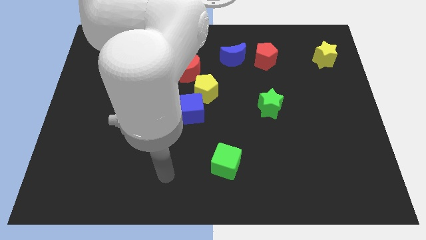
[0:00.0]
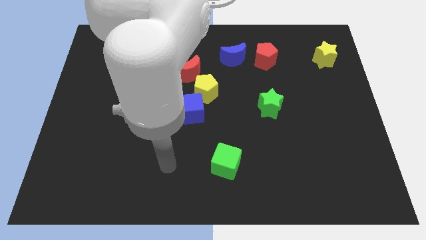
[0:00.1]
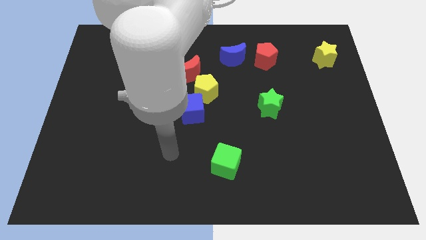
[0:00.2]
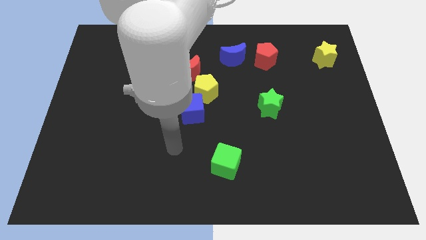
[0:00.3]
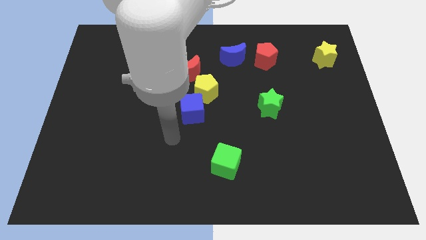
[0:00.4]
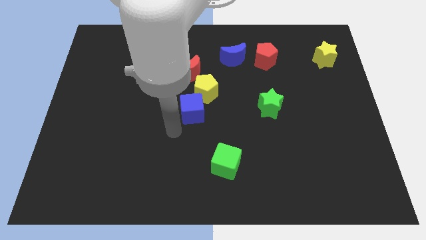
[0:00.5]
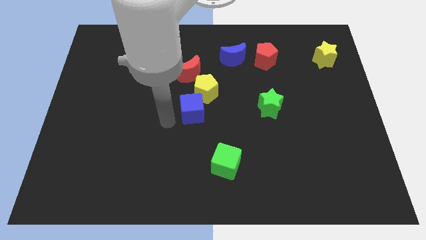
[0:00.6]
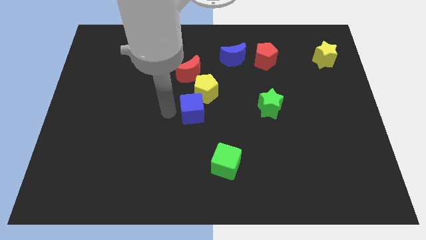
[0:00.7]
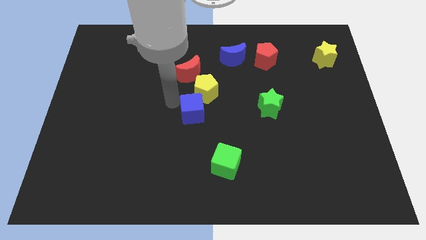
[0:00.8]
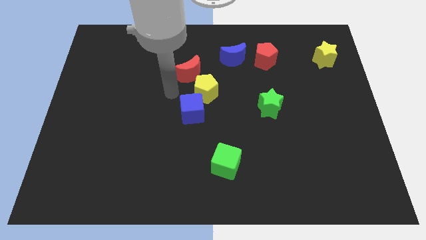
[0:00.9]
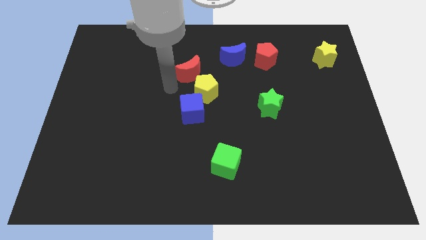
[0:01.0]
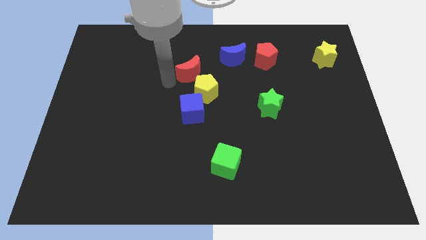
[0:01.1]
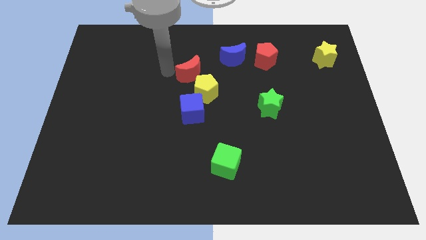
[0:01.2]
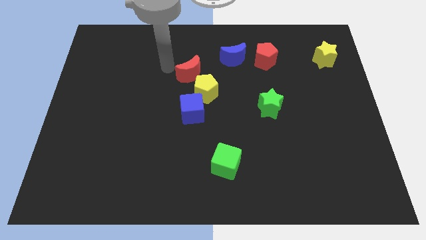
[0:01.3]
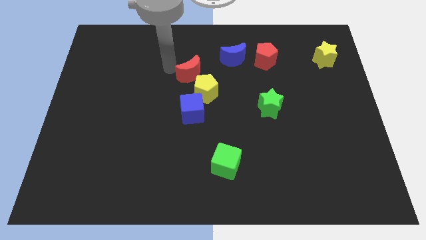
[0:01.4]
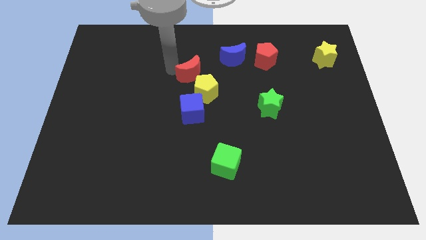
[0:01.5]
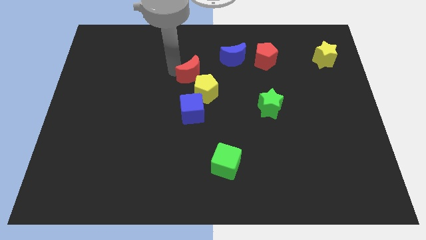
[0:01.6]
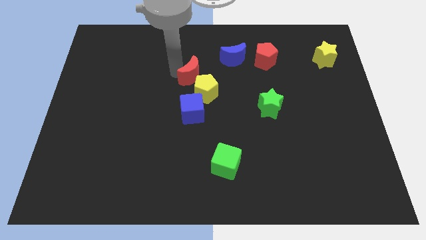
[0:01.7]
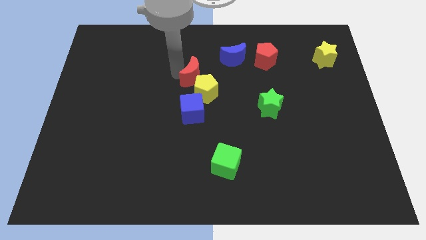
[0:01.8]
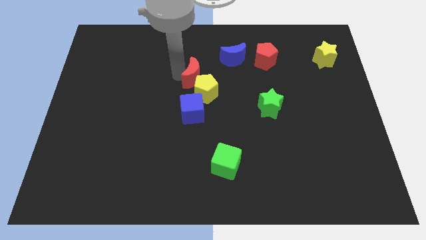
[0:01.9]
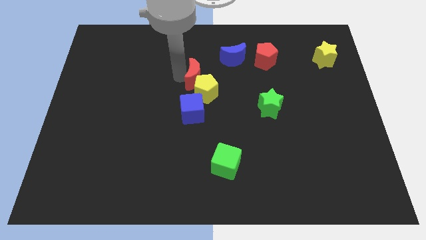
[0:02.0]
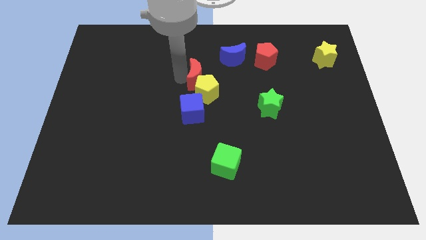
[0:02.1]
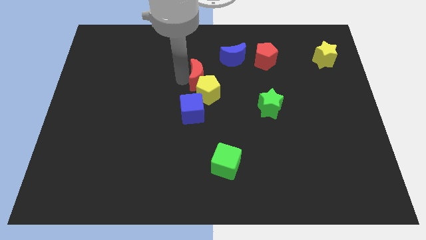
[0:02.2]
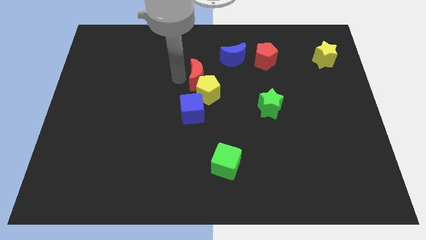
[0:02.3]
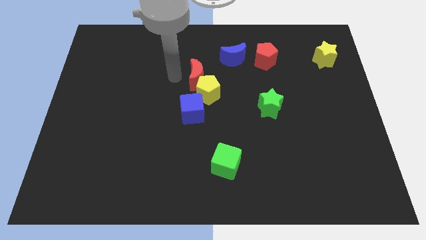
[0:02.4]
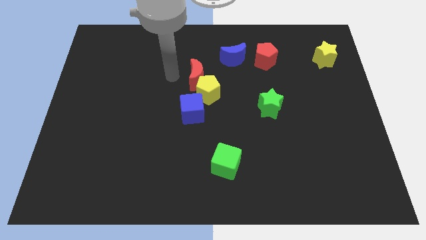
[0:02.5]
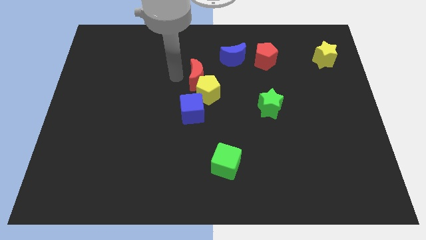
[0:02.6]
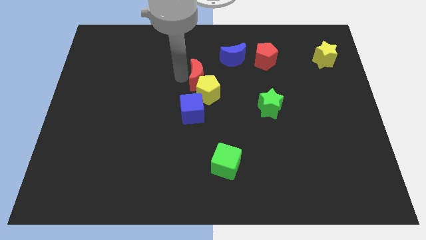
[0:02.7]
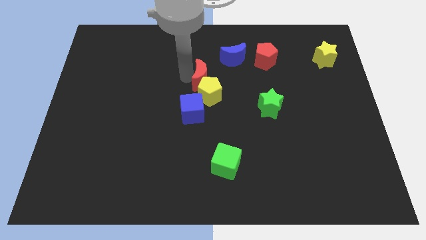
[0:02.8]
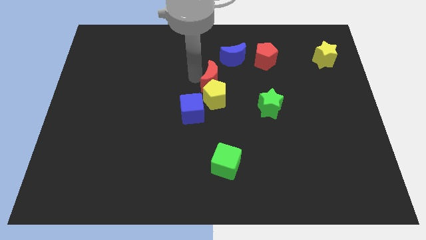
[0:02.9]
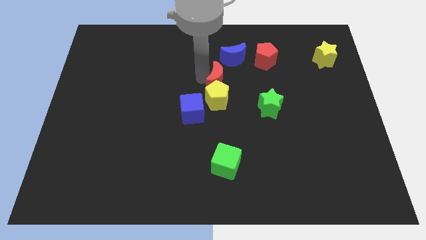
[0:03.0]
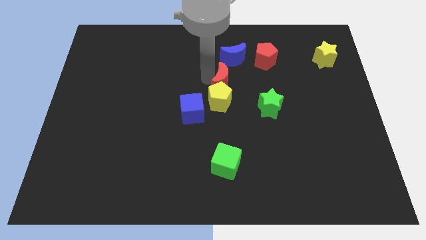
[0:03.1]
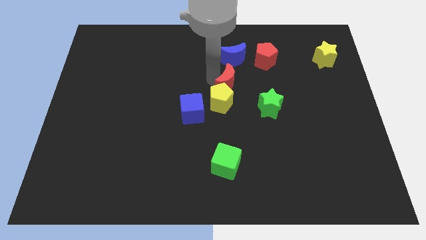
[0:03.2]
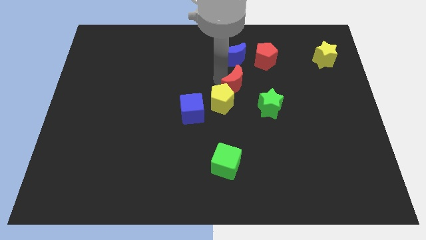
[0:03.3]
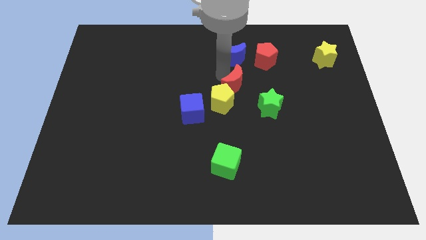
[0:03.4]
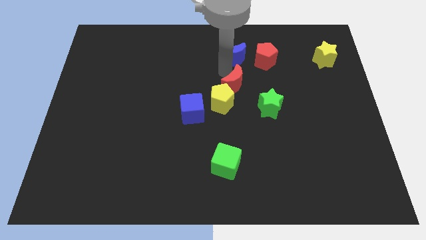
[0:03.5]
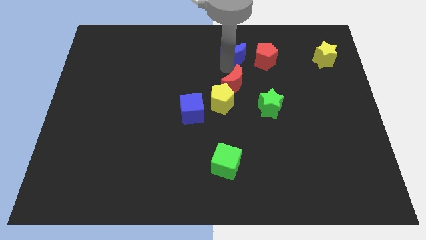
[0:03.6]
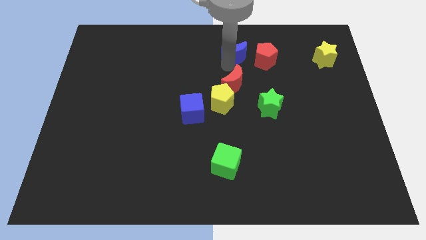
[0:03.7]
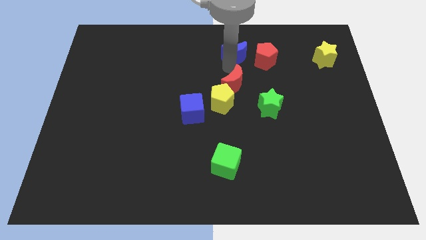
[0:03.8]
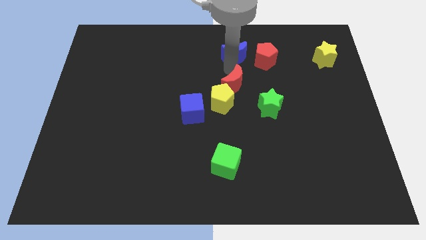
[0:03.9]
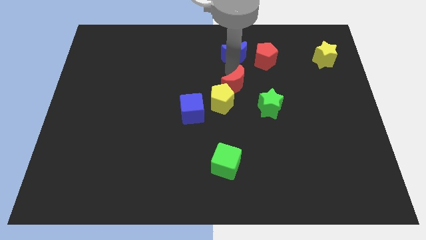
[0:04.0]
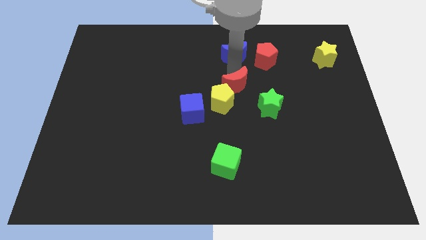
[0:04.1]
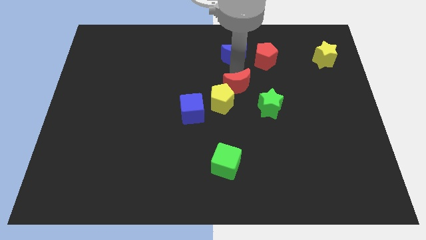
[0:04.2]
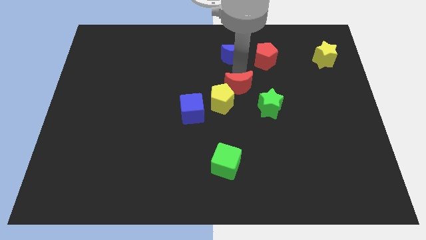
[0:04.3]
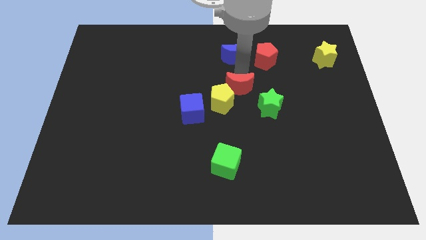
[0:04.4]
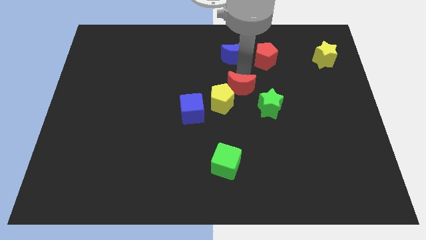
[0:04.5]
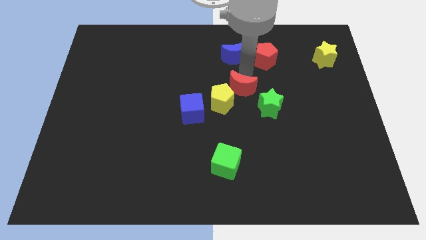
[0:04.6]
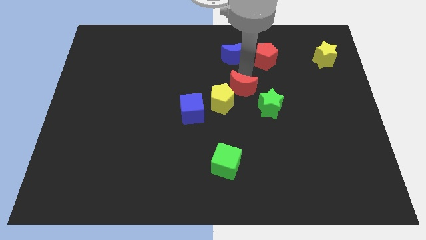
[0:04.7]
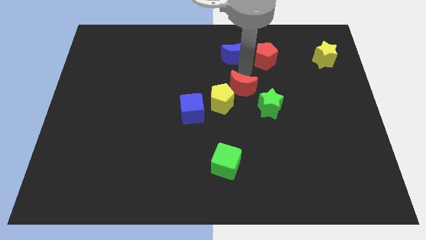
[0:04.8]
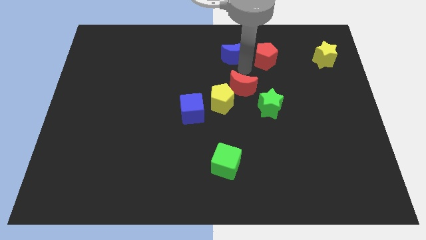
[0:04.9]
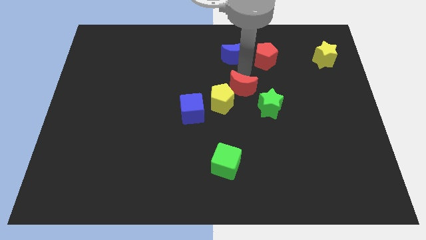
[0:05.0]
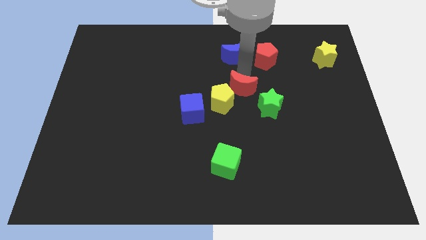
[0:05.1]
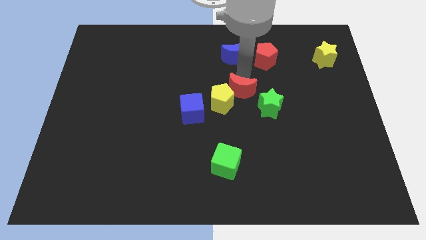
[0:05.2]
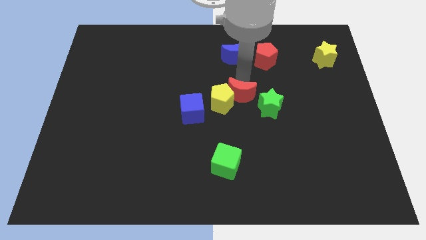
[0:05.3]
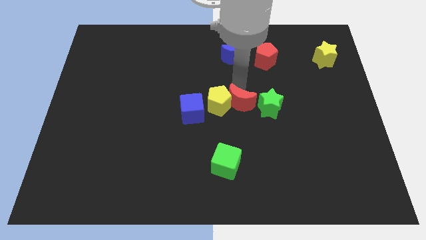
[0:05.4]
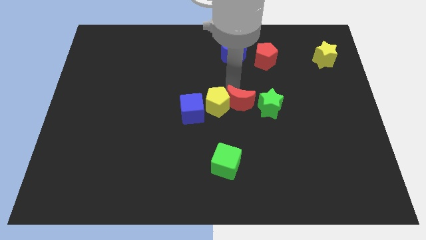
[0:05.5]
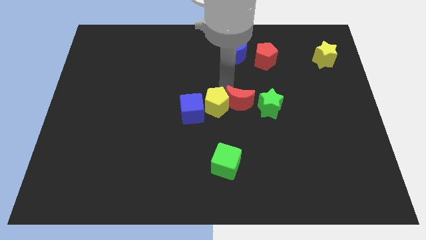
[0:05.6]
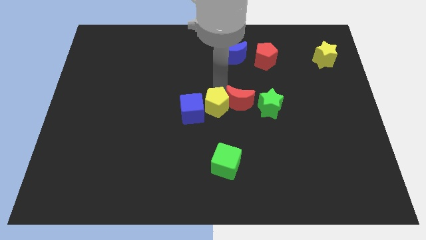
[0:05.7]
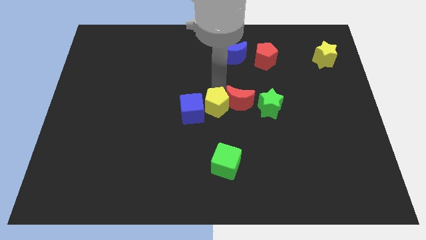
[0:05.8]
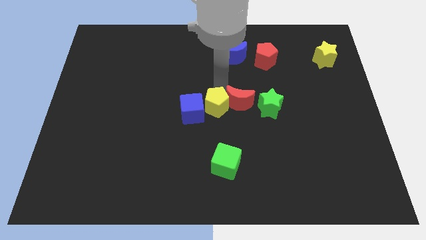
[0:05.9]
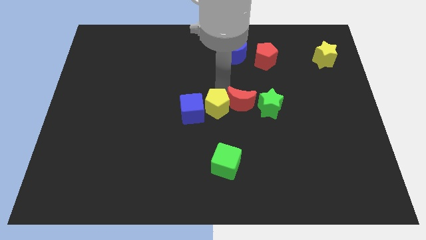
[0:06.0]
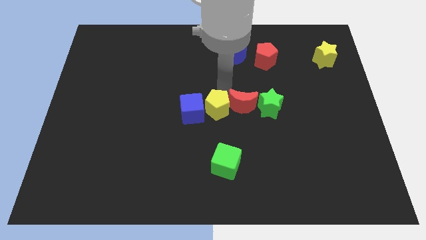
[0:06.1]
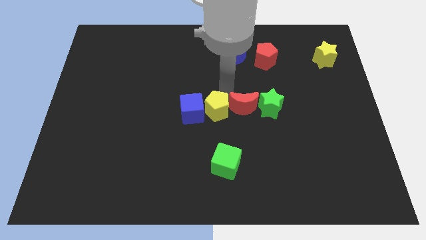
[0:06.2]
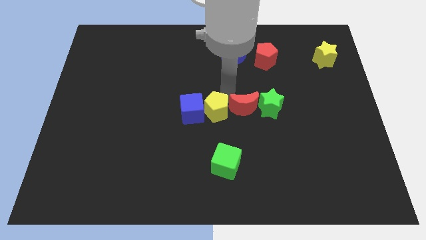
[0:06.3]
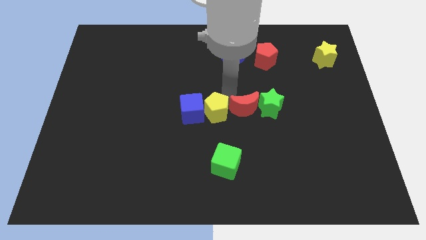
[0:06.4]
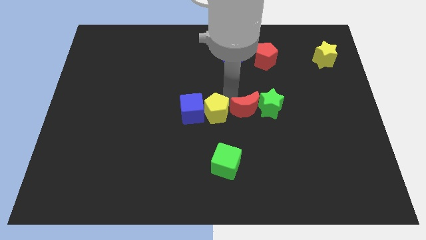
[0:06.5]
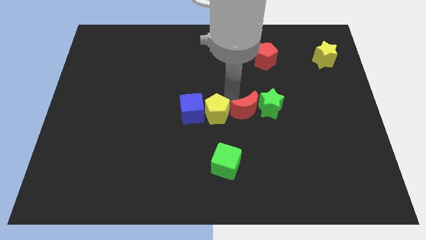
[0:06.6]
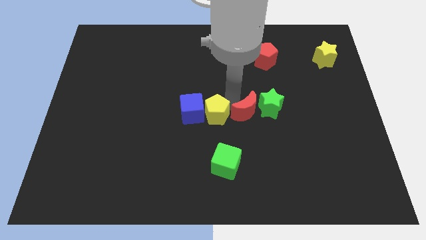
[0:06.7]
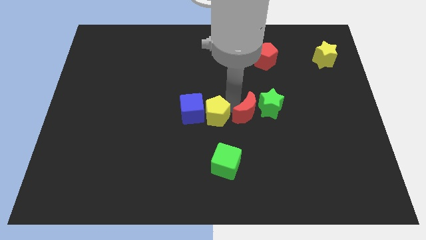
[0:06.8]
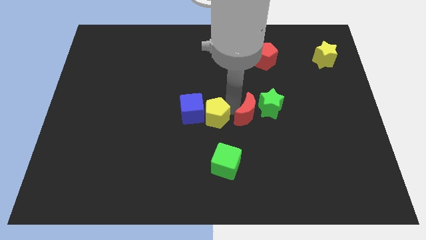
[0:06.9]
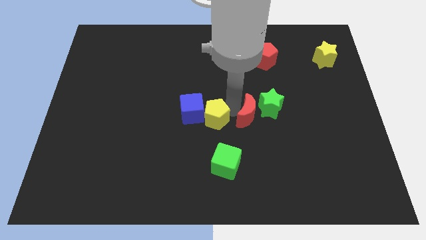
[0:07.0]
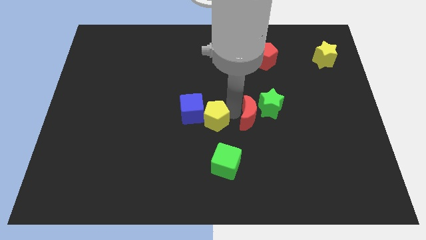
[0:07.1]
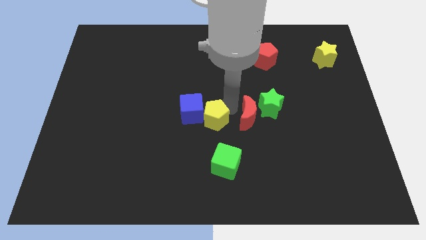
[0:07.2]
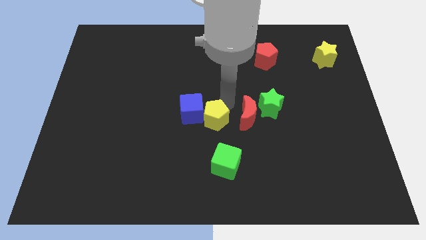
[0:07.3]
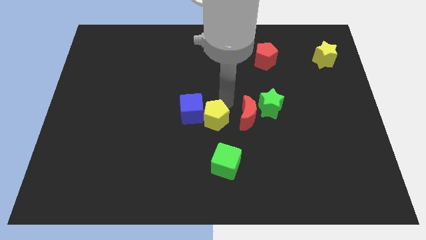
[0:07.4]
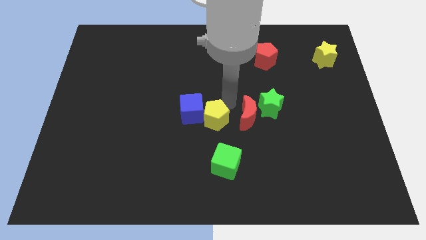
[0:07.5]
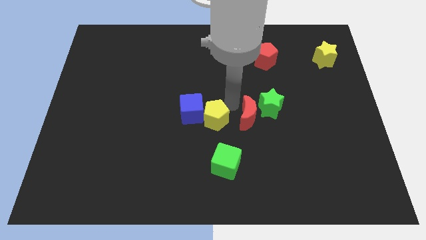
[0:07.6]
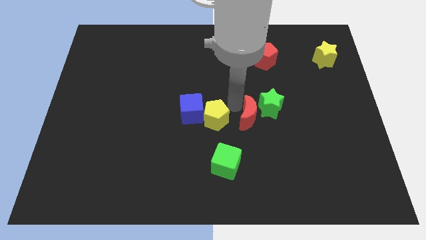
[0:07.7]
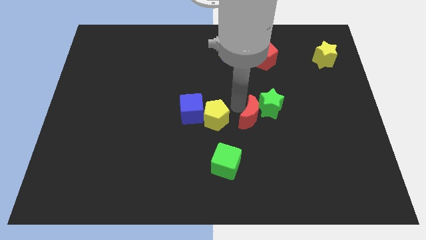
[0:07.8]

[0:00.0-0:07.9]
slide the red moon diagonally downwards and to the right

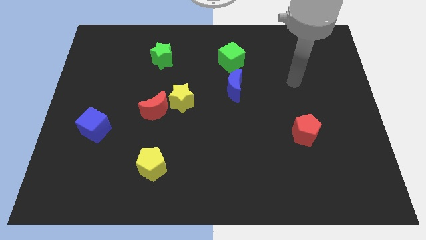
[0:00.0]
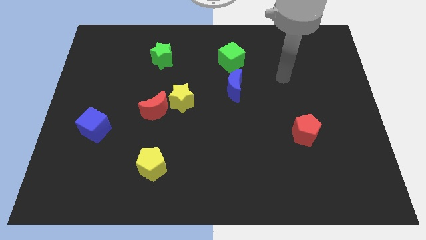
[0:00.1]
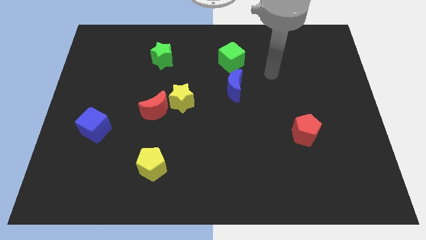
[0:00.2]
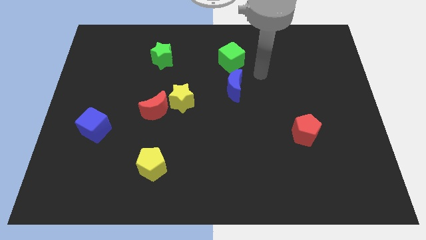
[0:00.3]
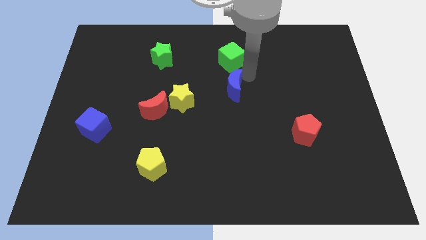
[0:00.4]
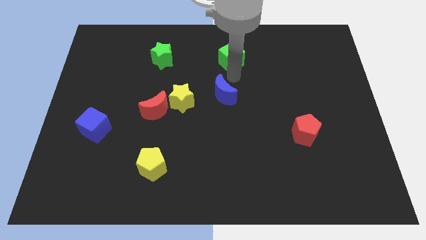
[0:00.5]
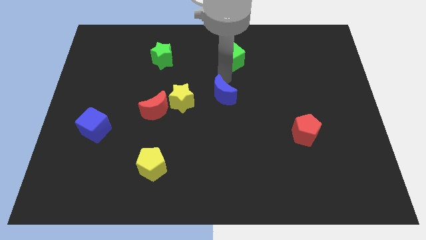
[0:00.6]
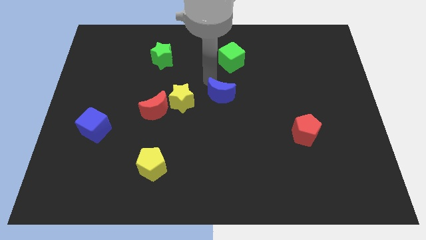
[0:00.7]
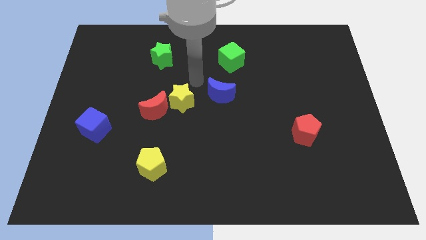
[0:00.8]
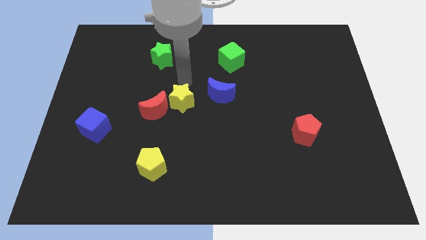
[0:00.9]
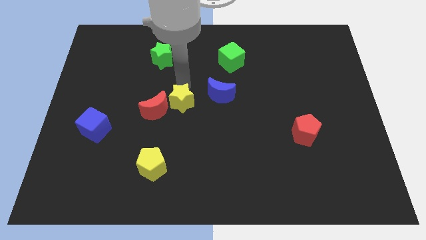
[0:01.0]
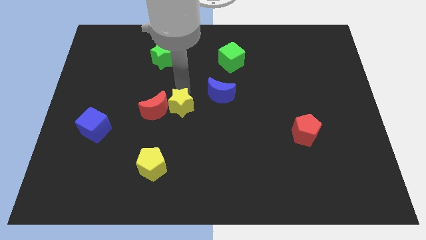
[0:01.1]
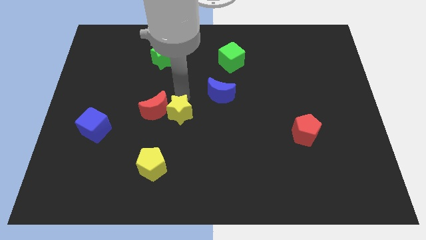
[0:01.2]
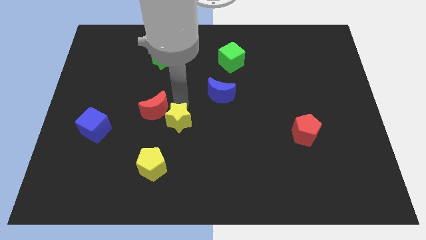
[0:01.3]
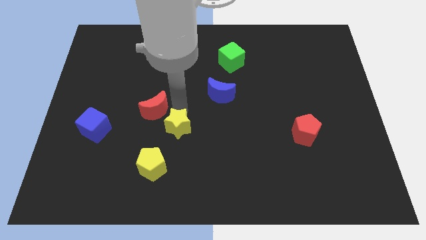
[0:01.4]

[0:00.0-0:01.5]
slightly push the yellow star downwards
